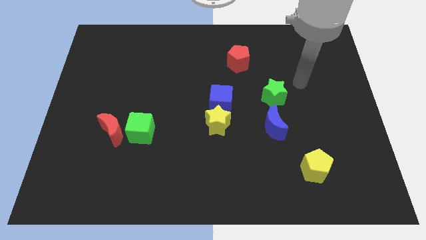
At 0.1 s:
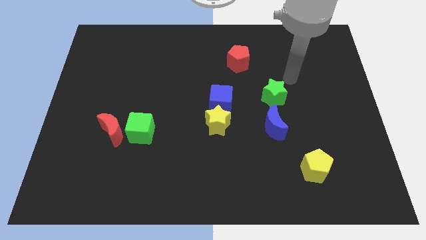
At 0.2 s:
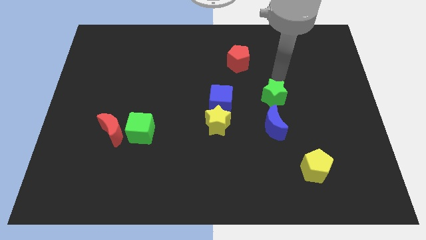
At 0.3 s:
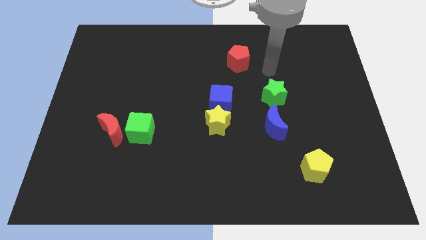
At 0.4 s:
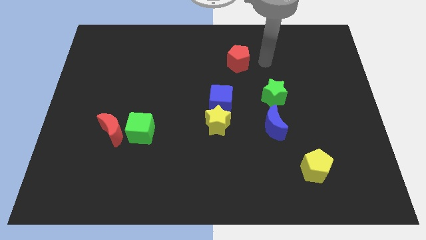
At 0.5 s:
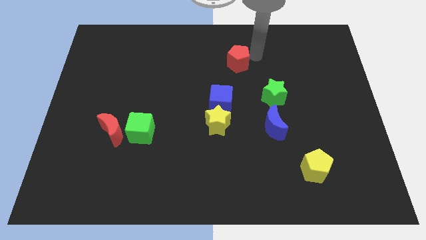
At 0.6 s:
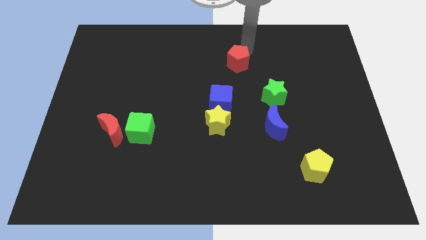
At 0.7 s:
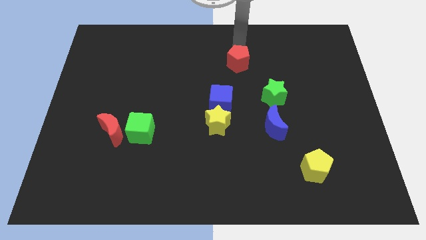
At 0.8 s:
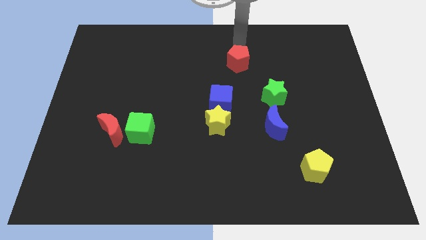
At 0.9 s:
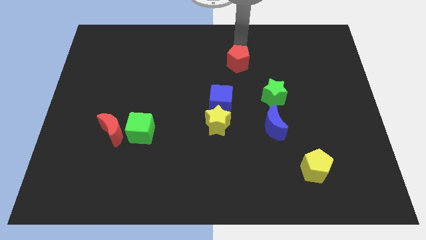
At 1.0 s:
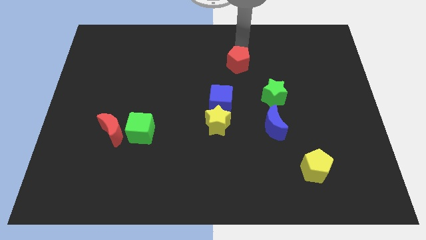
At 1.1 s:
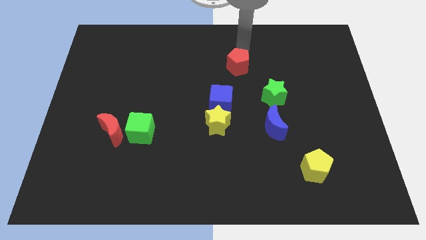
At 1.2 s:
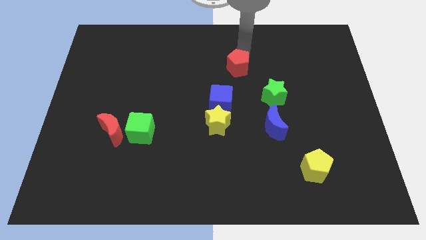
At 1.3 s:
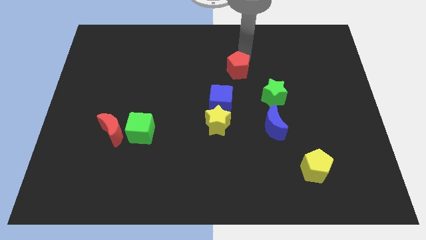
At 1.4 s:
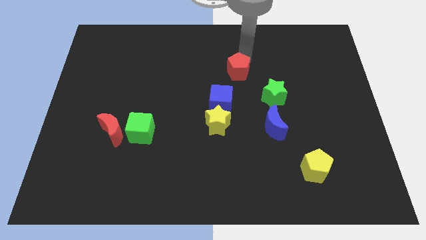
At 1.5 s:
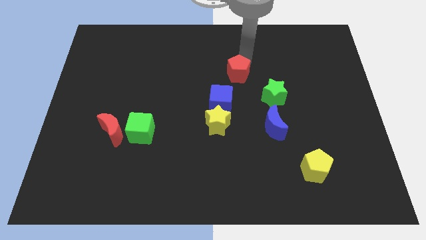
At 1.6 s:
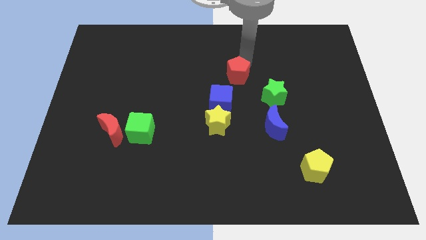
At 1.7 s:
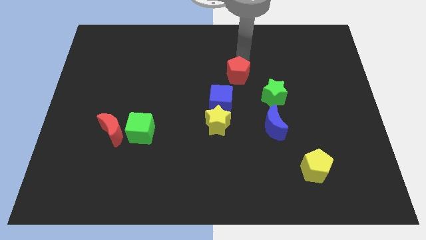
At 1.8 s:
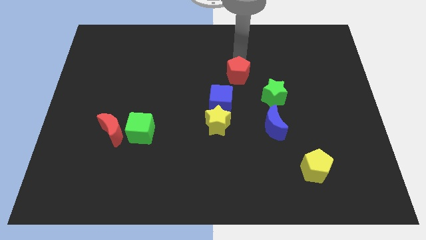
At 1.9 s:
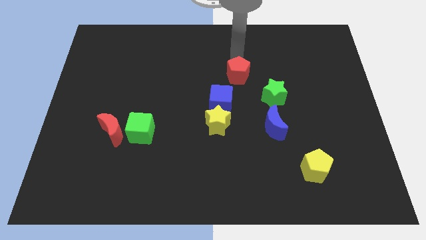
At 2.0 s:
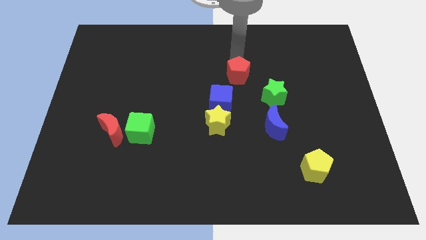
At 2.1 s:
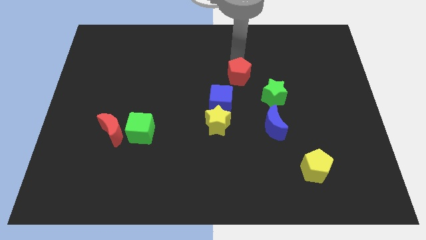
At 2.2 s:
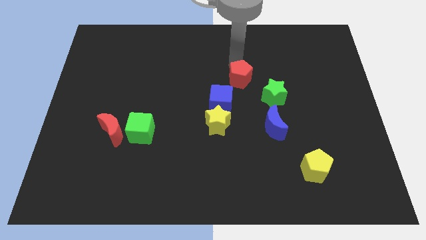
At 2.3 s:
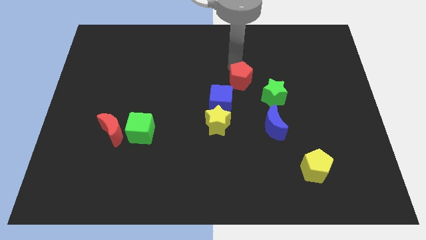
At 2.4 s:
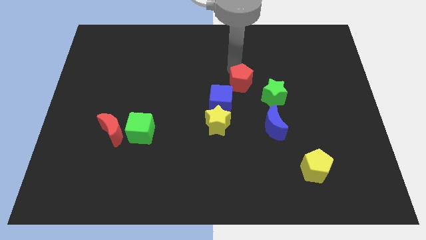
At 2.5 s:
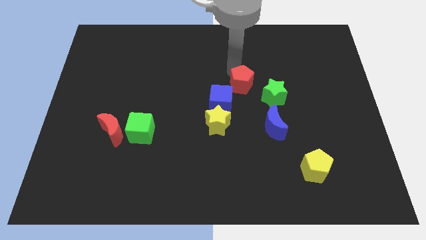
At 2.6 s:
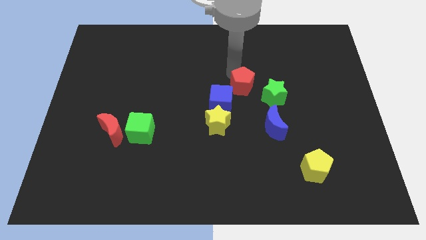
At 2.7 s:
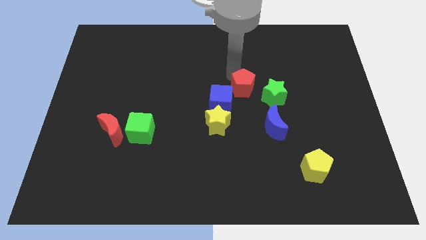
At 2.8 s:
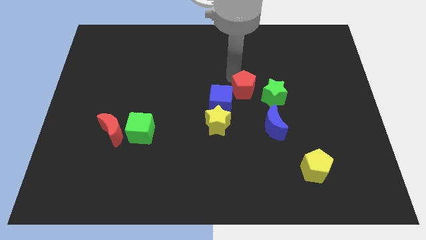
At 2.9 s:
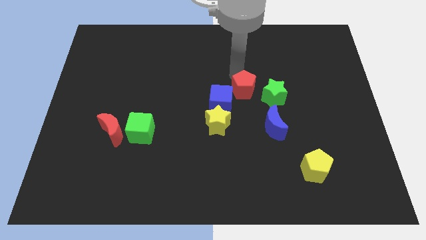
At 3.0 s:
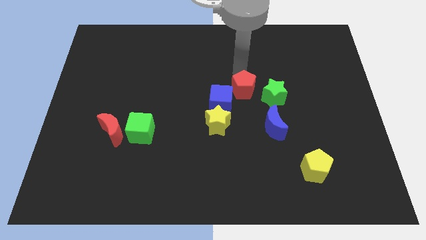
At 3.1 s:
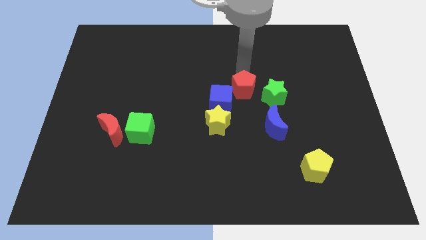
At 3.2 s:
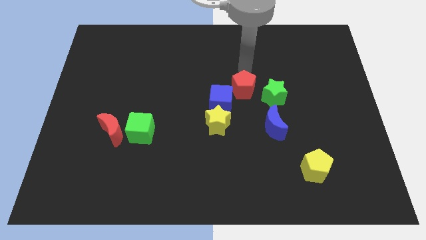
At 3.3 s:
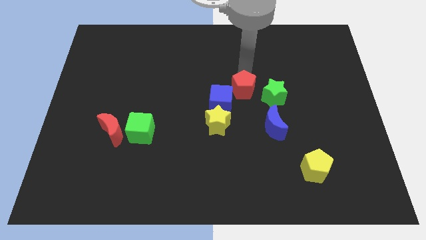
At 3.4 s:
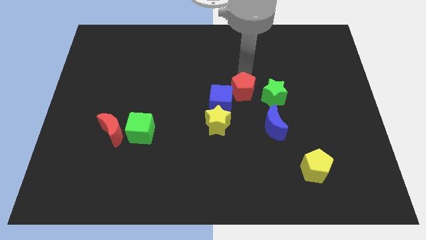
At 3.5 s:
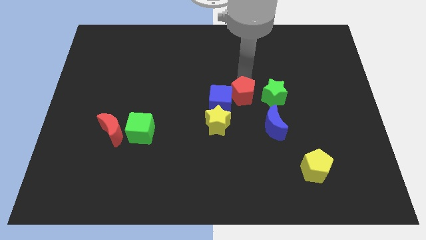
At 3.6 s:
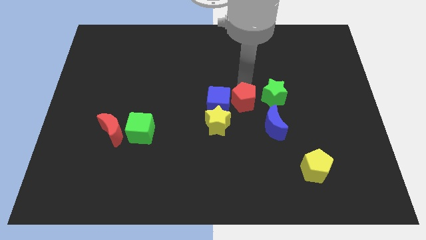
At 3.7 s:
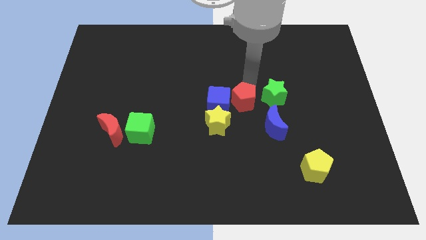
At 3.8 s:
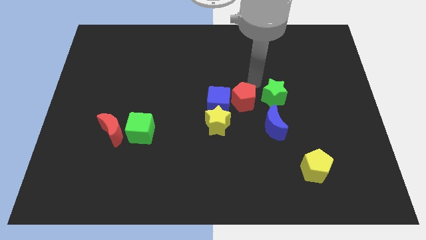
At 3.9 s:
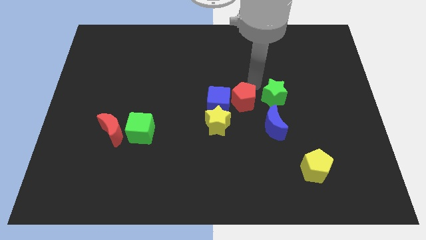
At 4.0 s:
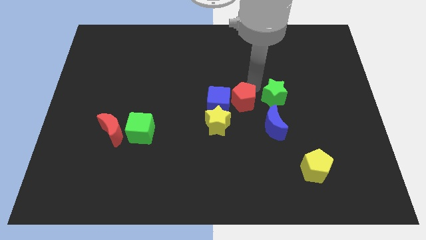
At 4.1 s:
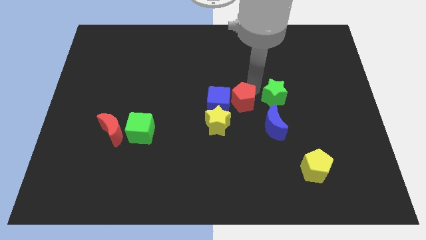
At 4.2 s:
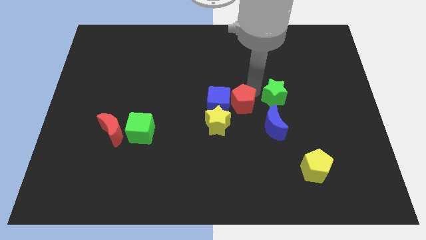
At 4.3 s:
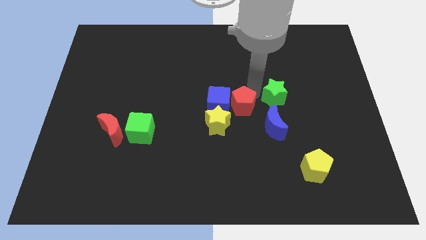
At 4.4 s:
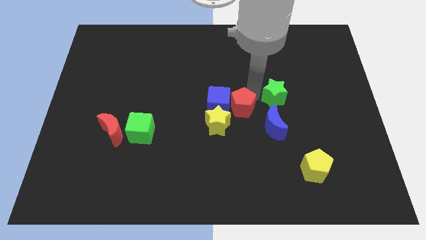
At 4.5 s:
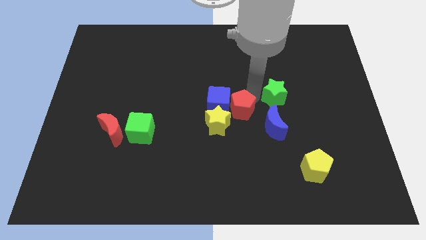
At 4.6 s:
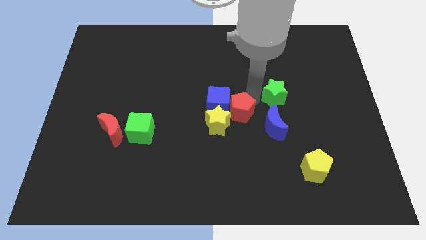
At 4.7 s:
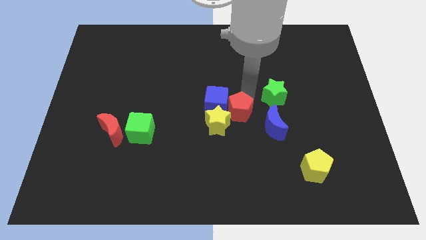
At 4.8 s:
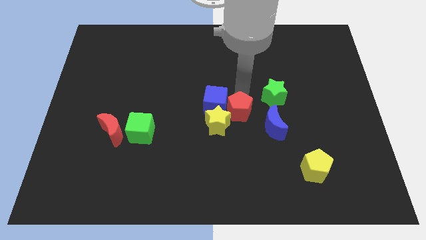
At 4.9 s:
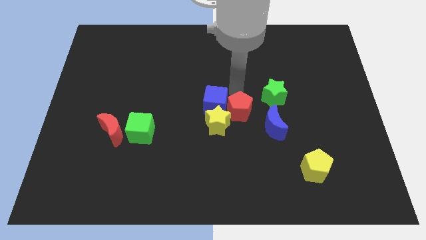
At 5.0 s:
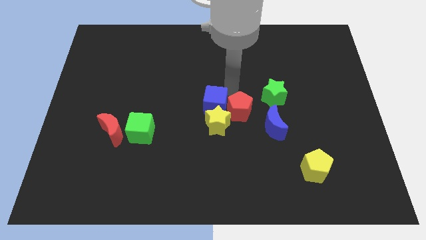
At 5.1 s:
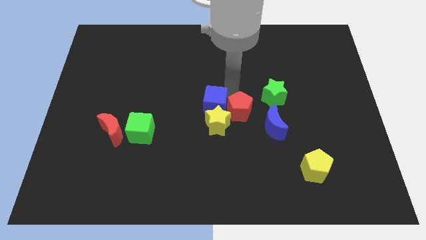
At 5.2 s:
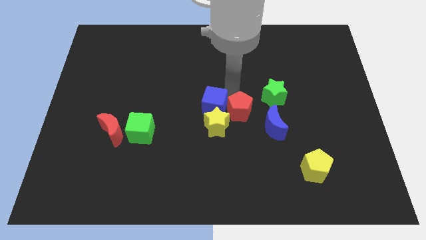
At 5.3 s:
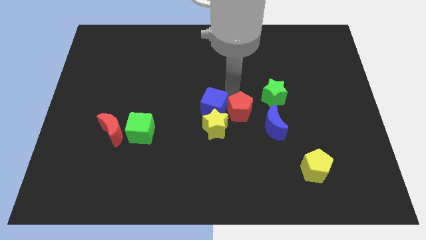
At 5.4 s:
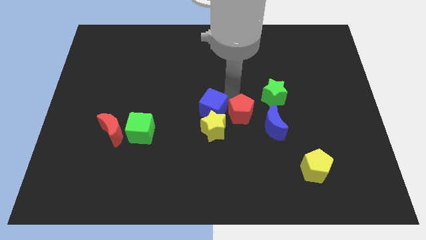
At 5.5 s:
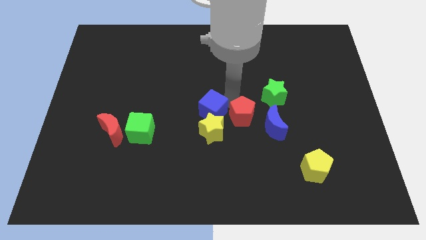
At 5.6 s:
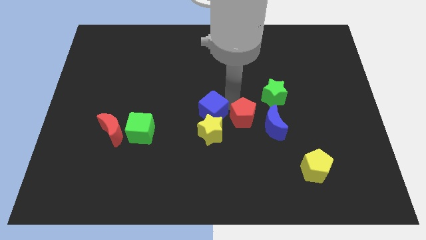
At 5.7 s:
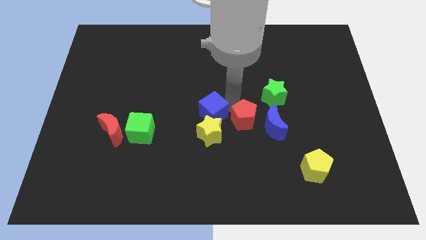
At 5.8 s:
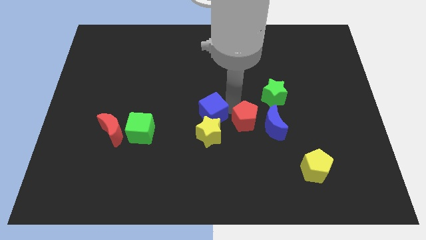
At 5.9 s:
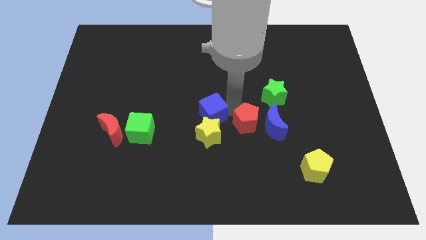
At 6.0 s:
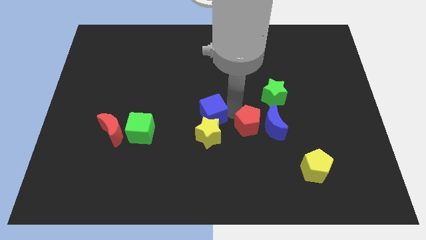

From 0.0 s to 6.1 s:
slide the red pentagon down

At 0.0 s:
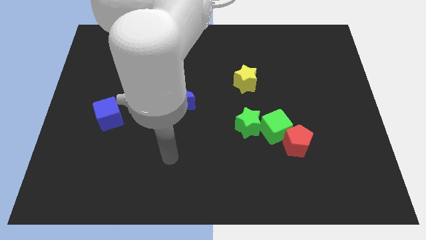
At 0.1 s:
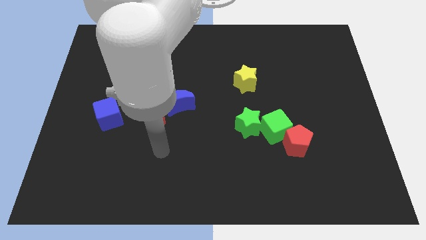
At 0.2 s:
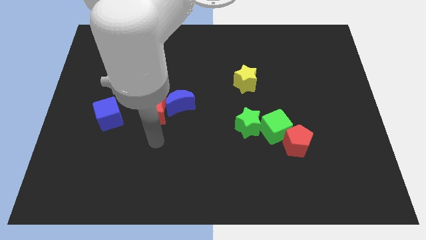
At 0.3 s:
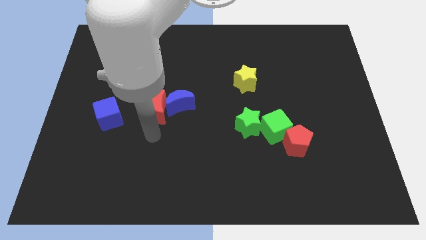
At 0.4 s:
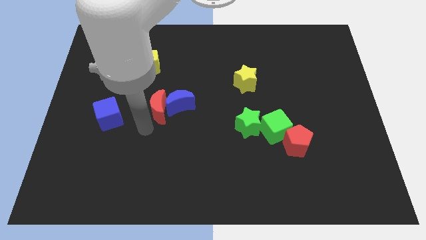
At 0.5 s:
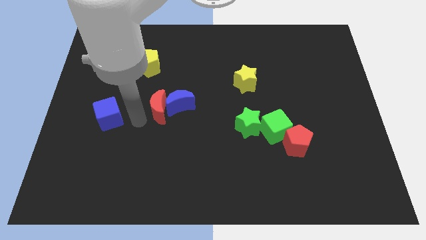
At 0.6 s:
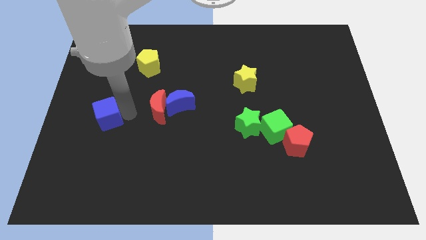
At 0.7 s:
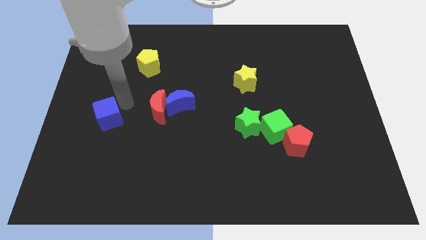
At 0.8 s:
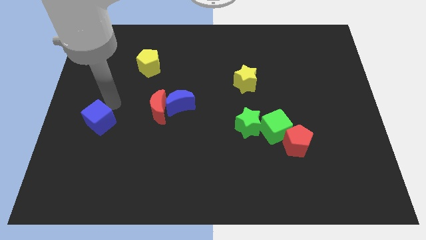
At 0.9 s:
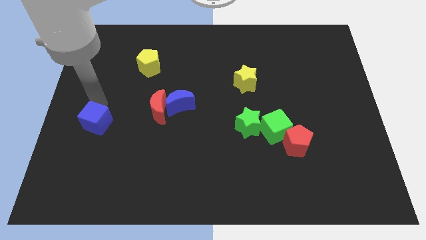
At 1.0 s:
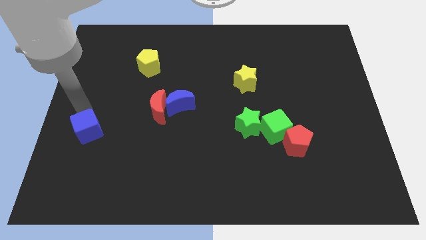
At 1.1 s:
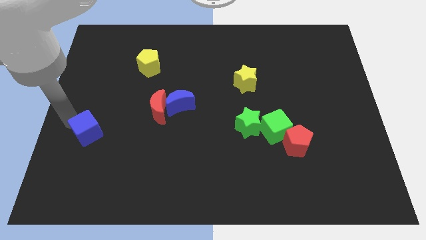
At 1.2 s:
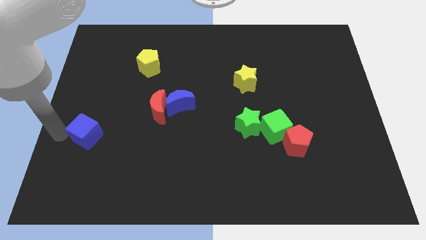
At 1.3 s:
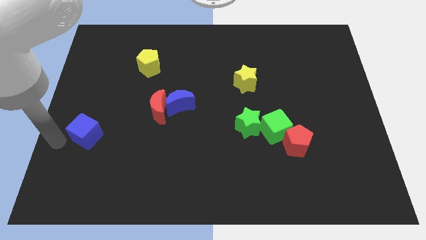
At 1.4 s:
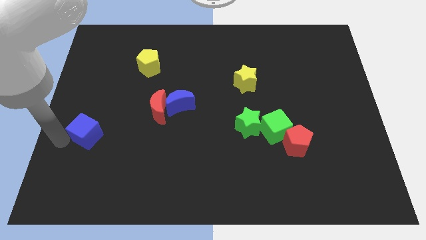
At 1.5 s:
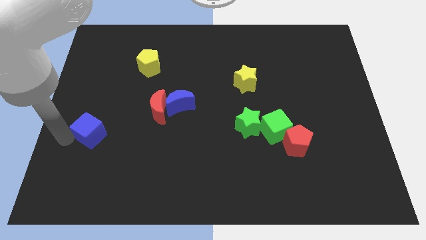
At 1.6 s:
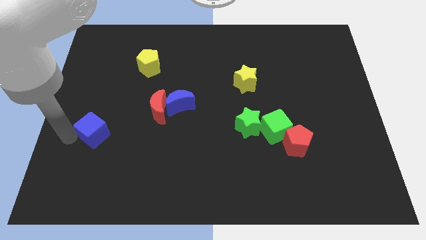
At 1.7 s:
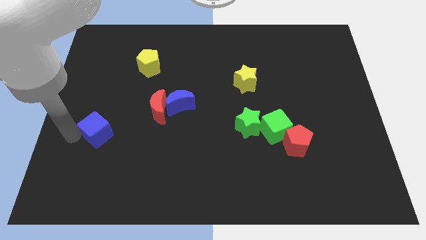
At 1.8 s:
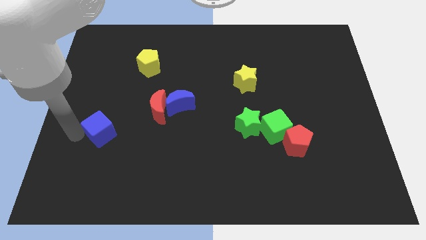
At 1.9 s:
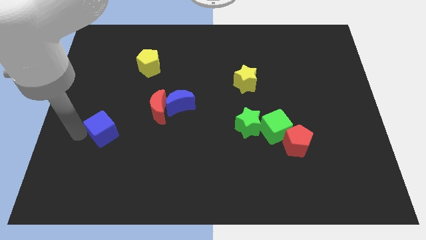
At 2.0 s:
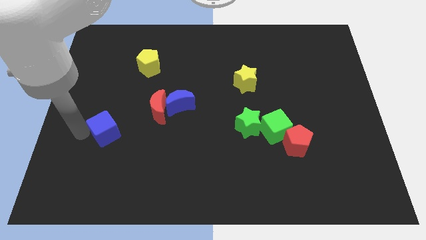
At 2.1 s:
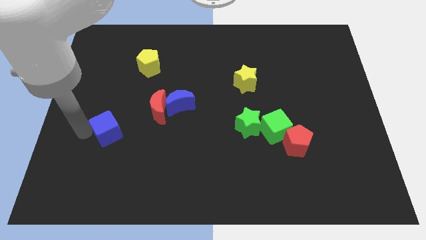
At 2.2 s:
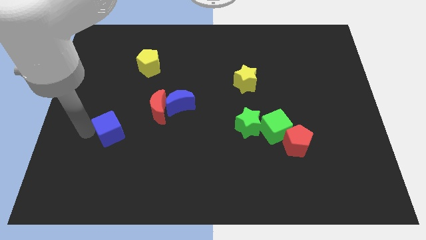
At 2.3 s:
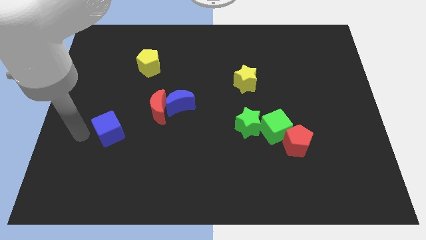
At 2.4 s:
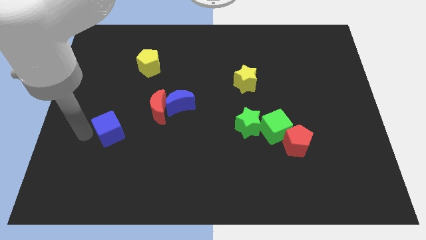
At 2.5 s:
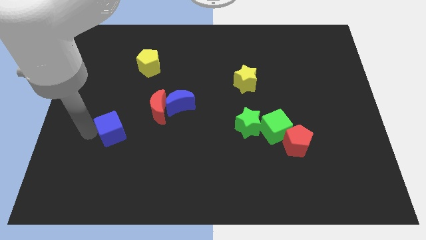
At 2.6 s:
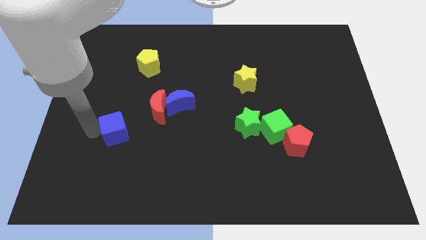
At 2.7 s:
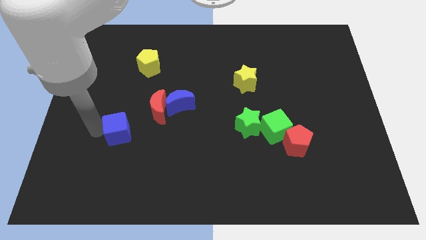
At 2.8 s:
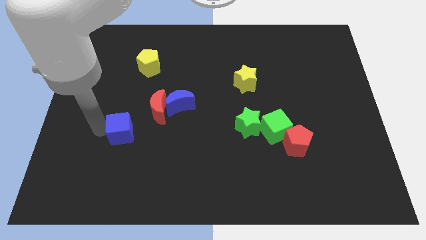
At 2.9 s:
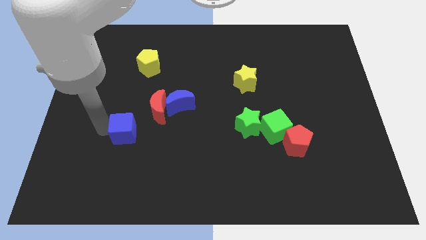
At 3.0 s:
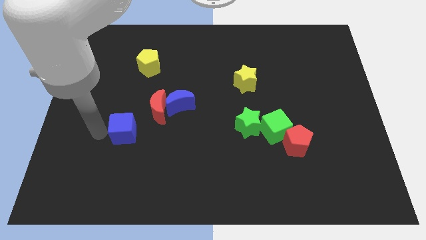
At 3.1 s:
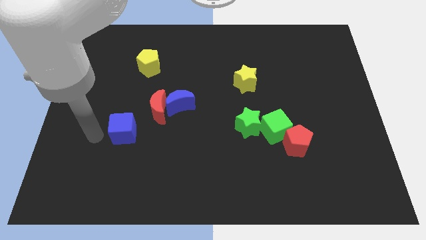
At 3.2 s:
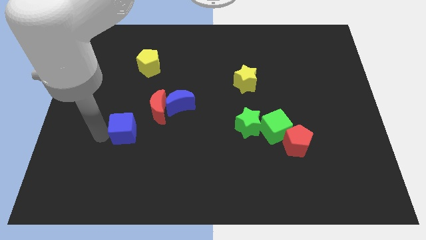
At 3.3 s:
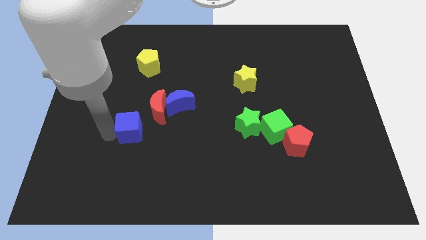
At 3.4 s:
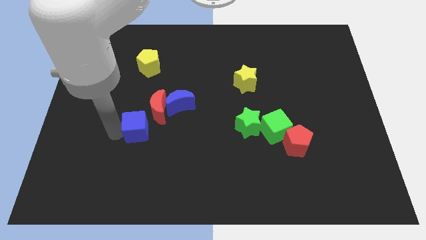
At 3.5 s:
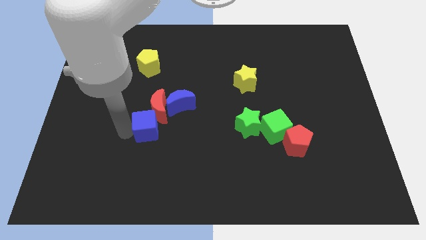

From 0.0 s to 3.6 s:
push the blue cube slightly right
